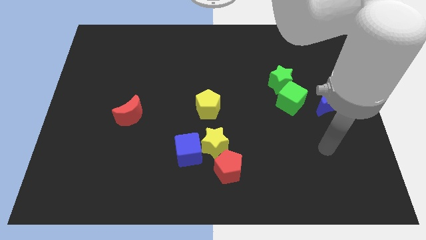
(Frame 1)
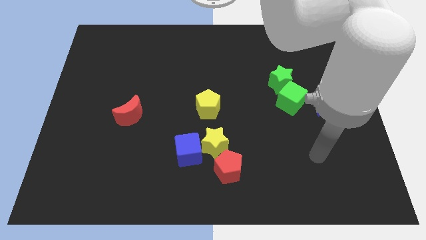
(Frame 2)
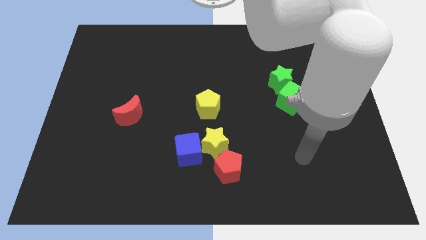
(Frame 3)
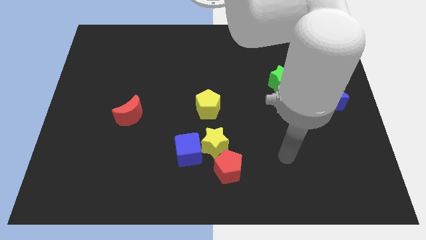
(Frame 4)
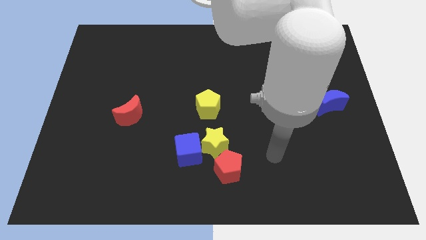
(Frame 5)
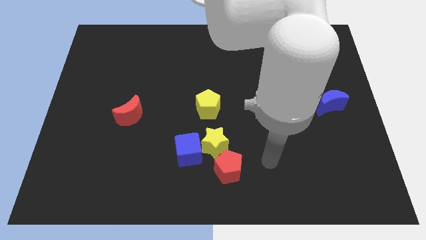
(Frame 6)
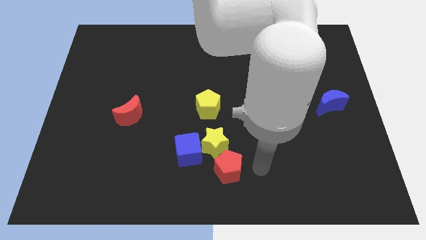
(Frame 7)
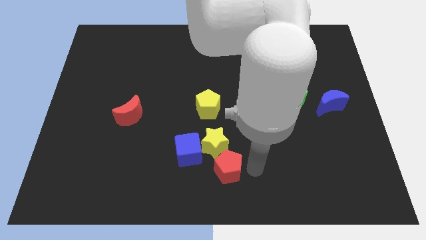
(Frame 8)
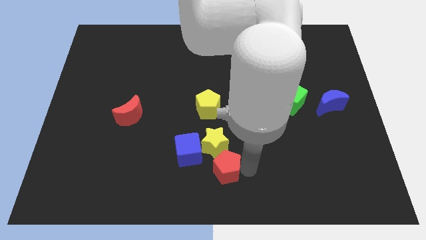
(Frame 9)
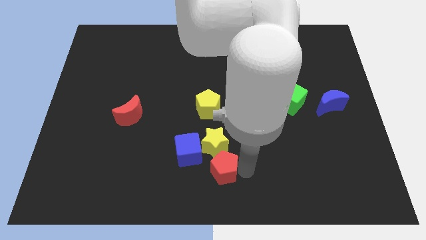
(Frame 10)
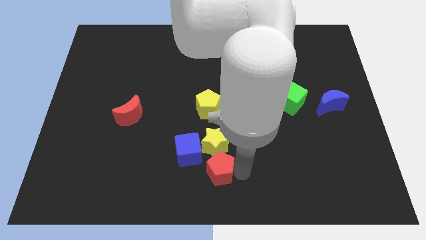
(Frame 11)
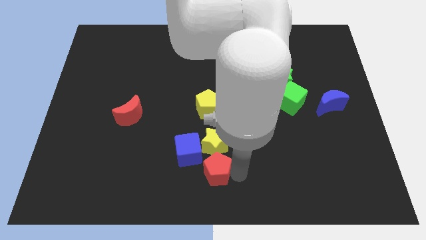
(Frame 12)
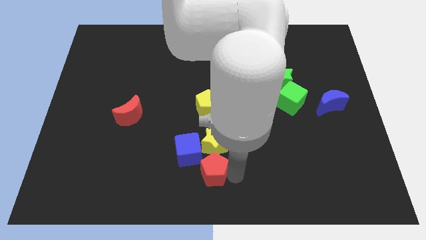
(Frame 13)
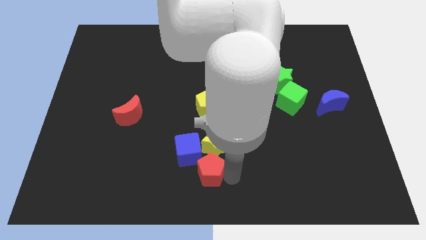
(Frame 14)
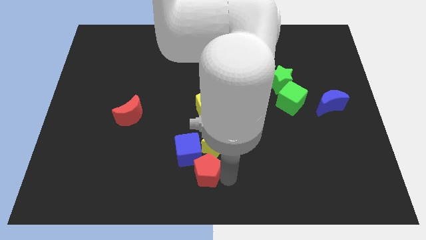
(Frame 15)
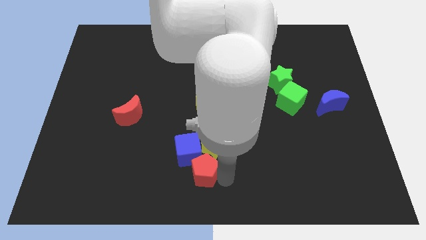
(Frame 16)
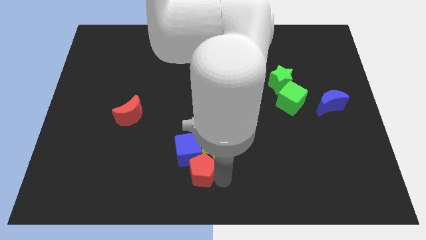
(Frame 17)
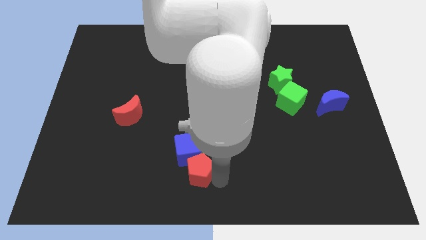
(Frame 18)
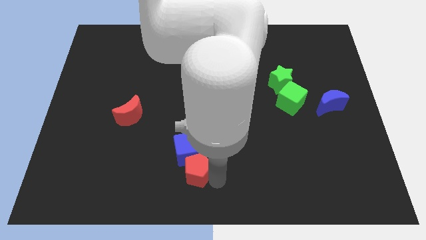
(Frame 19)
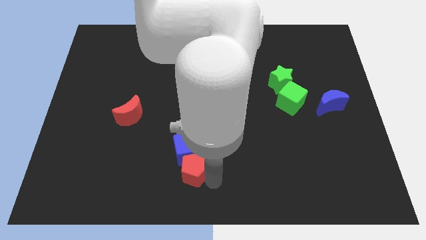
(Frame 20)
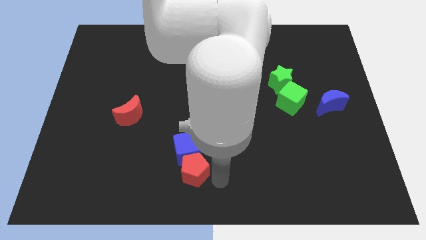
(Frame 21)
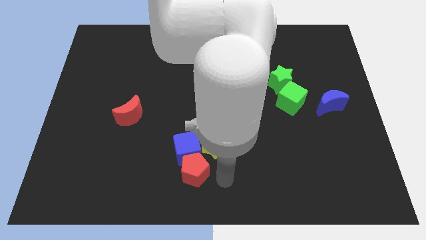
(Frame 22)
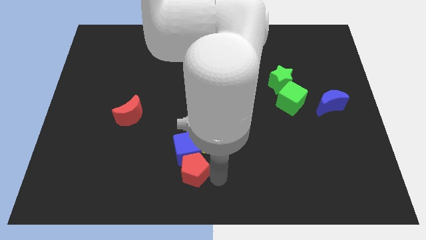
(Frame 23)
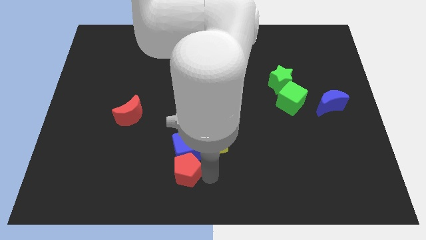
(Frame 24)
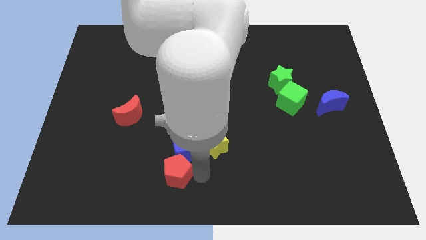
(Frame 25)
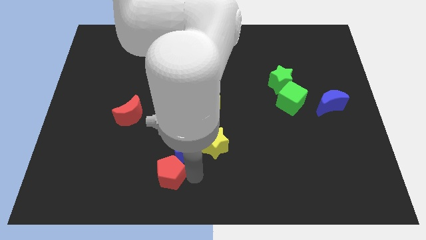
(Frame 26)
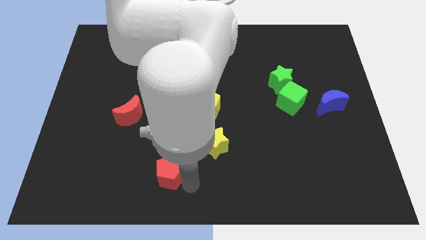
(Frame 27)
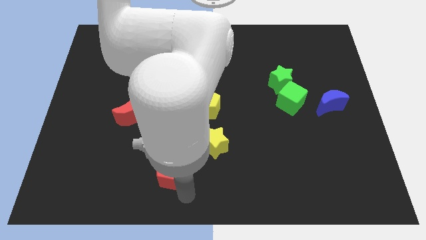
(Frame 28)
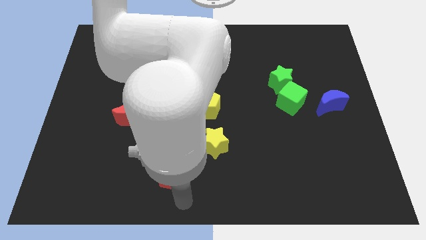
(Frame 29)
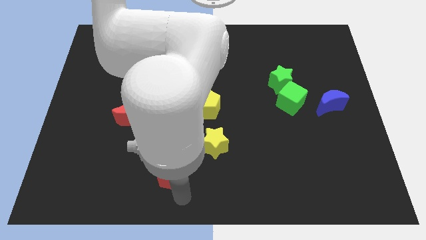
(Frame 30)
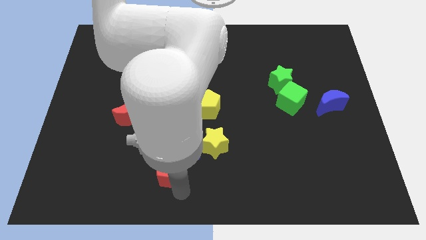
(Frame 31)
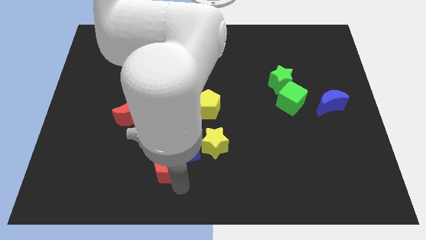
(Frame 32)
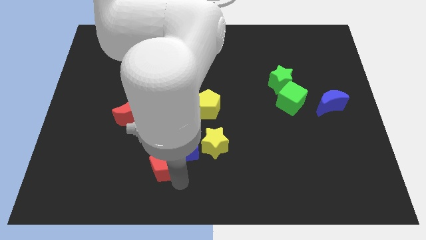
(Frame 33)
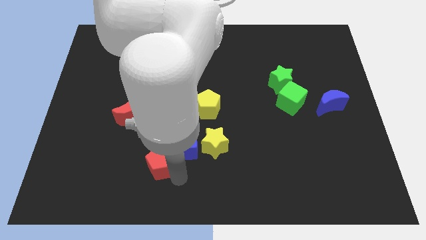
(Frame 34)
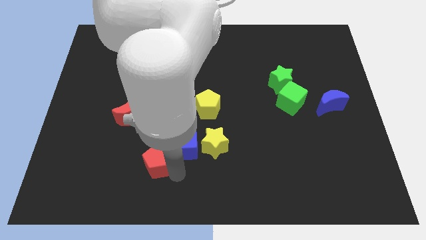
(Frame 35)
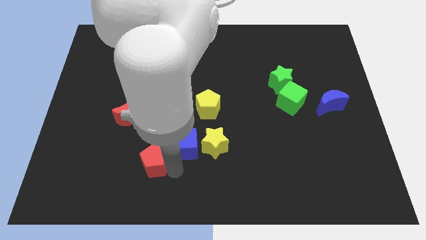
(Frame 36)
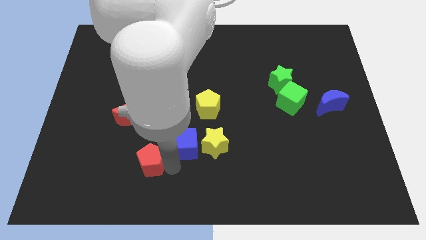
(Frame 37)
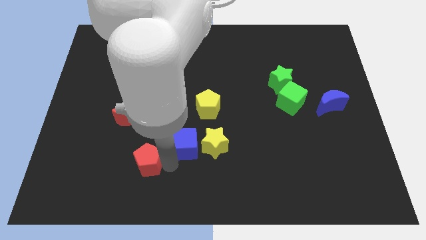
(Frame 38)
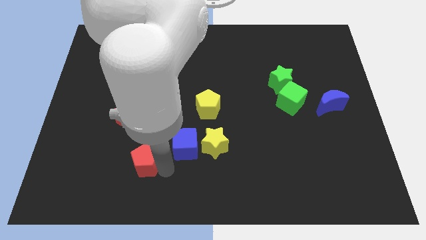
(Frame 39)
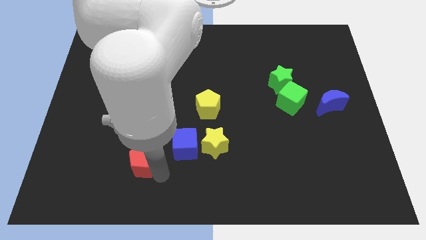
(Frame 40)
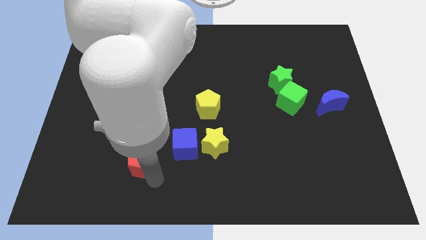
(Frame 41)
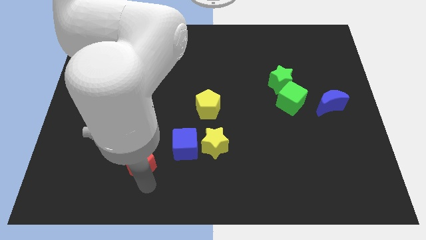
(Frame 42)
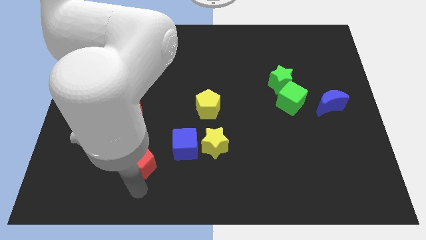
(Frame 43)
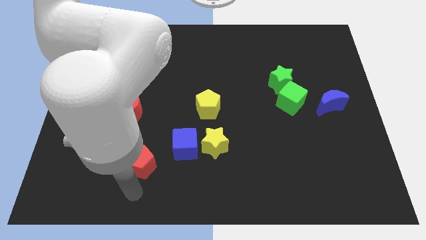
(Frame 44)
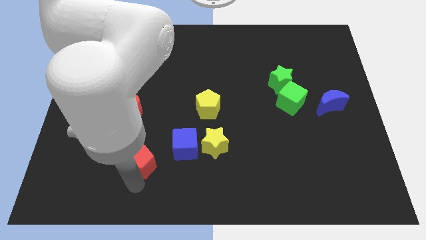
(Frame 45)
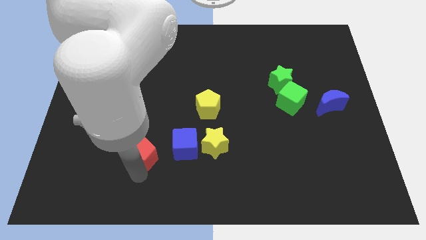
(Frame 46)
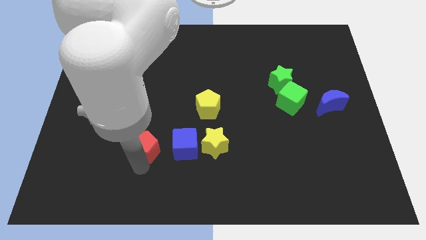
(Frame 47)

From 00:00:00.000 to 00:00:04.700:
put the red pentagon diagonally down and to the right of the red moon

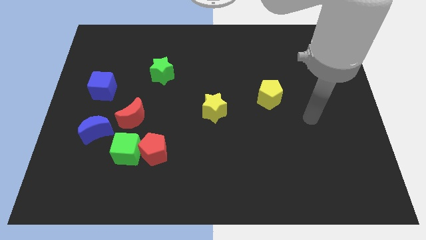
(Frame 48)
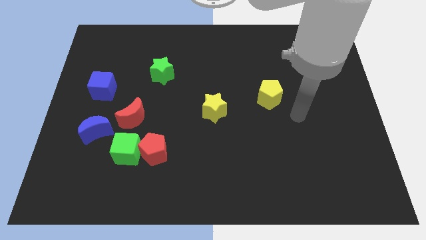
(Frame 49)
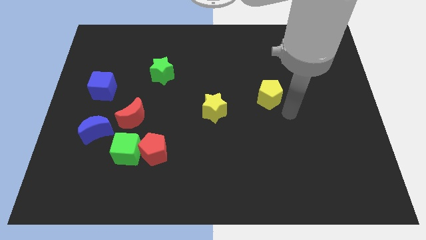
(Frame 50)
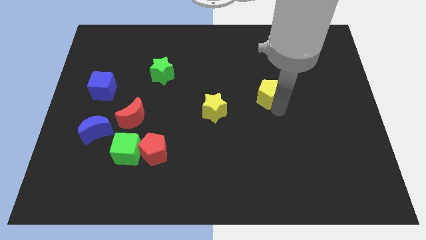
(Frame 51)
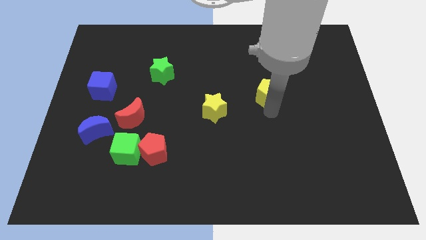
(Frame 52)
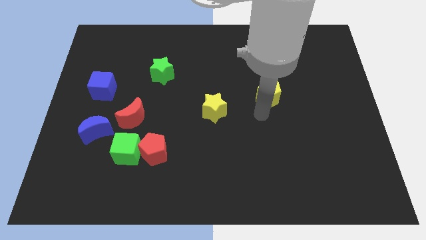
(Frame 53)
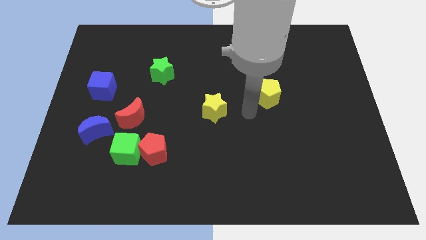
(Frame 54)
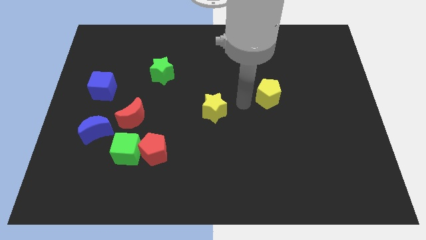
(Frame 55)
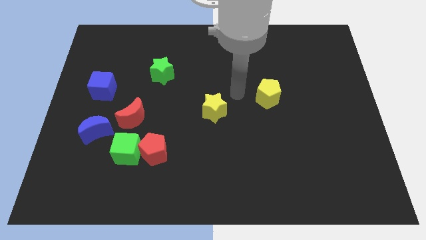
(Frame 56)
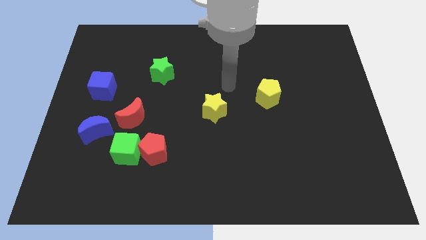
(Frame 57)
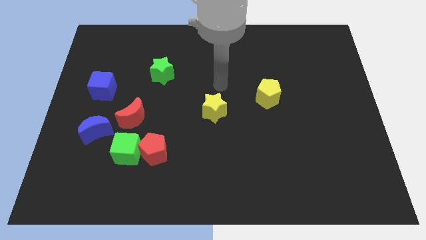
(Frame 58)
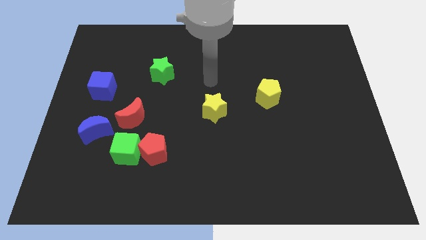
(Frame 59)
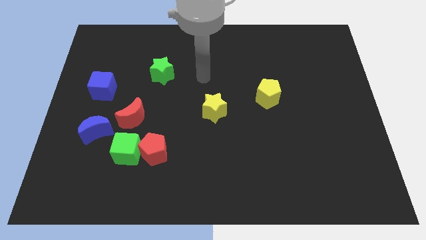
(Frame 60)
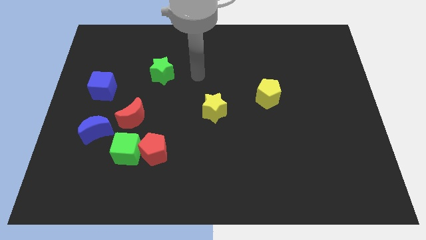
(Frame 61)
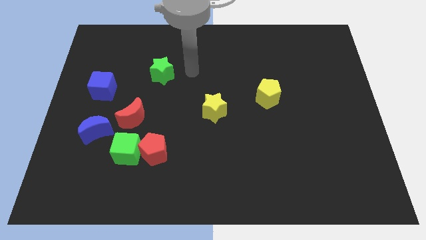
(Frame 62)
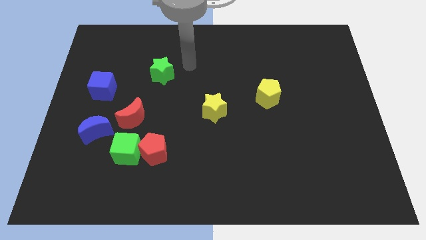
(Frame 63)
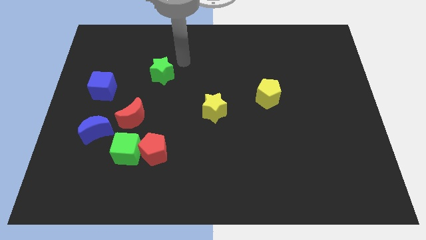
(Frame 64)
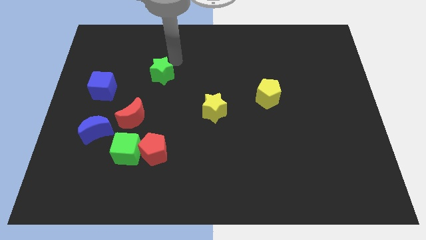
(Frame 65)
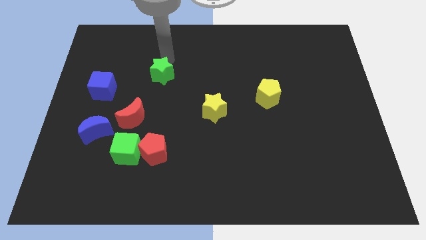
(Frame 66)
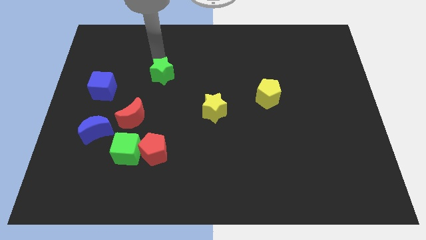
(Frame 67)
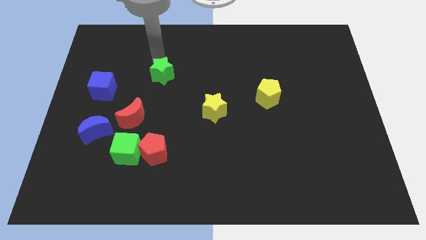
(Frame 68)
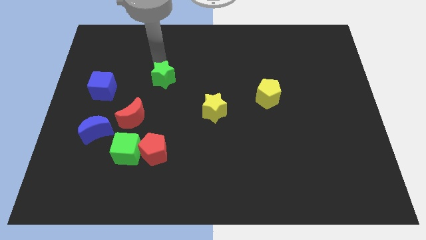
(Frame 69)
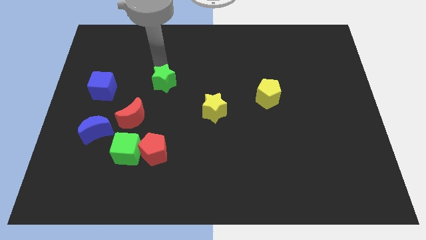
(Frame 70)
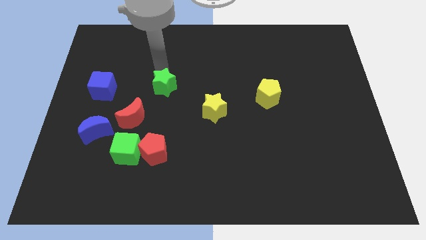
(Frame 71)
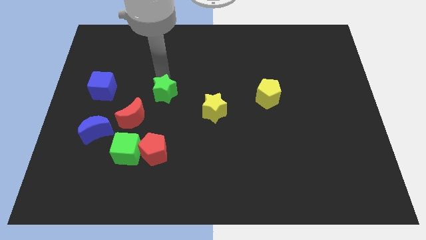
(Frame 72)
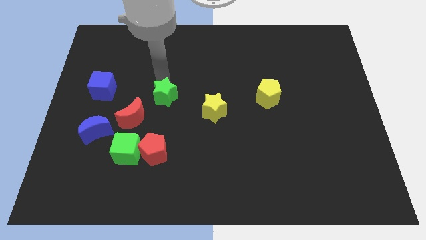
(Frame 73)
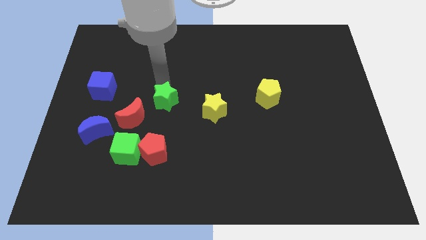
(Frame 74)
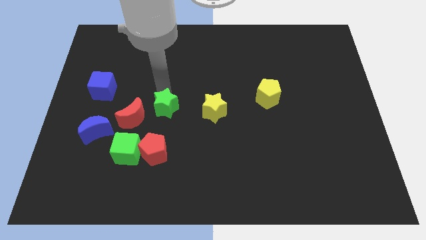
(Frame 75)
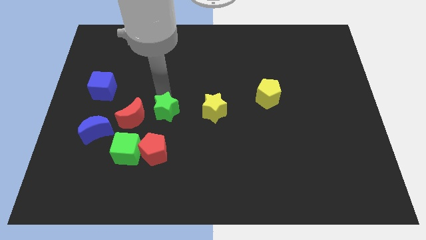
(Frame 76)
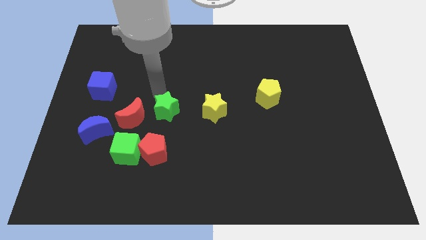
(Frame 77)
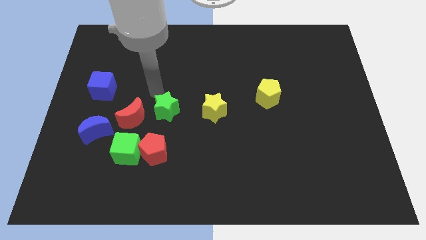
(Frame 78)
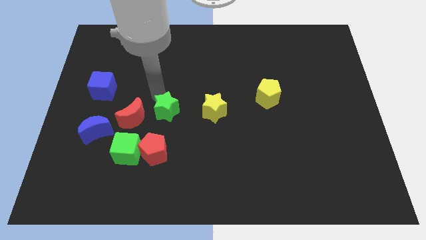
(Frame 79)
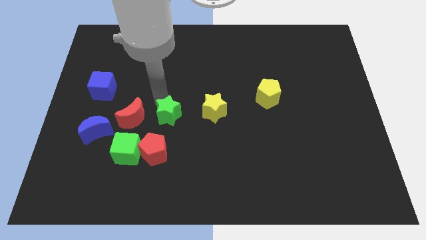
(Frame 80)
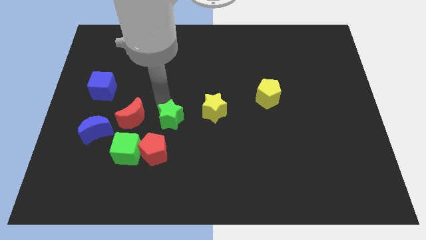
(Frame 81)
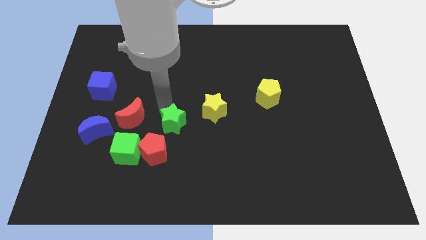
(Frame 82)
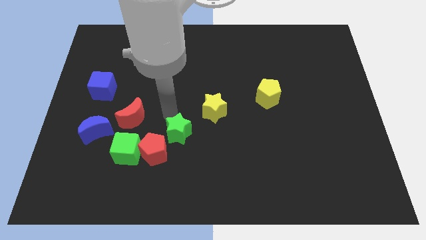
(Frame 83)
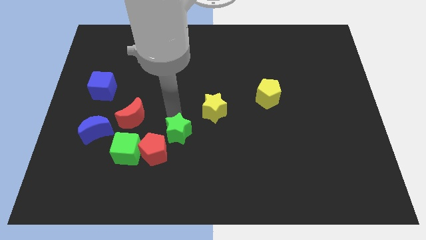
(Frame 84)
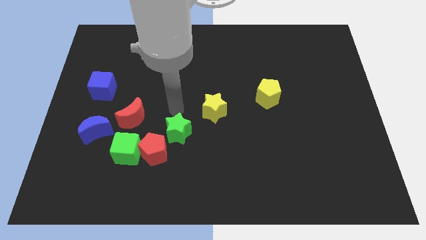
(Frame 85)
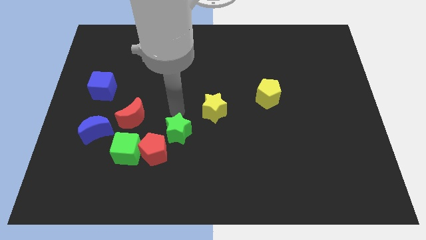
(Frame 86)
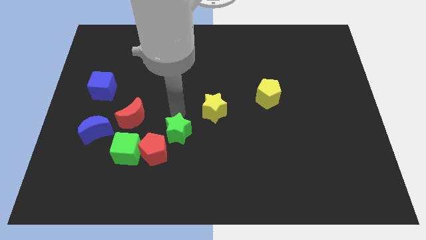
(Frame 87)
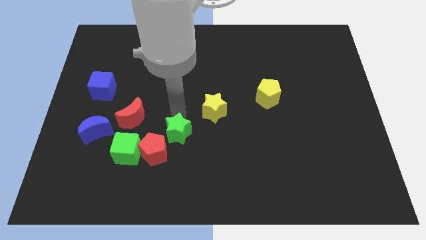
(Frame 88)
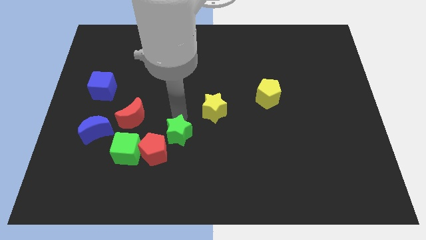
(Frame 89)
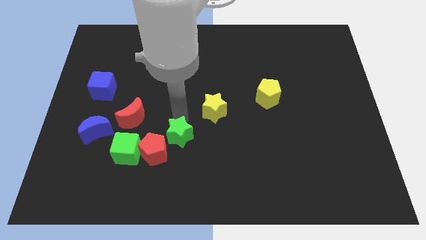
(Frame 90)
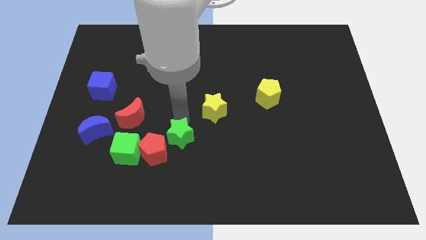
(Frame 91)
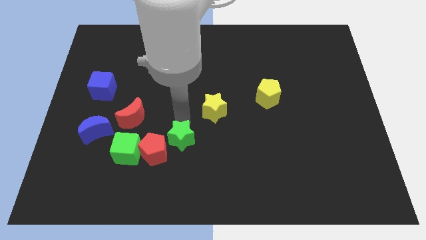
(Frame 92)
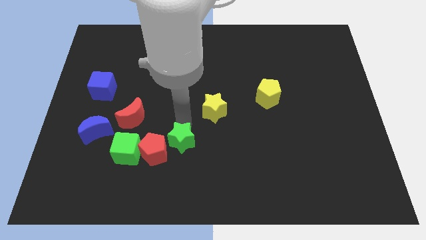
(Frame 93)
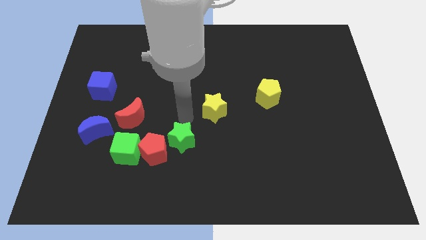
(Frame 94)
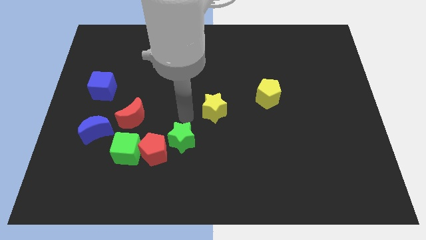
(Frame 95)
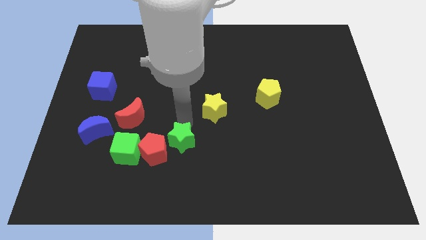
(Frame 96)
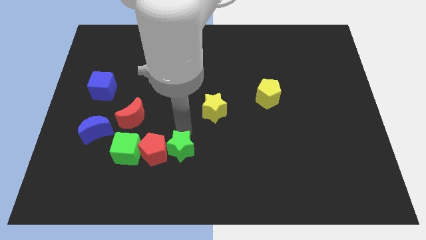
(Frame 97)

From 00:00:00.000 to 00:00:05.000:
put the green star to the bottom right of the red pentagon
